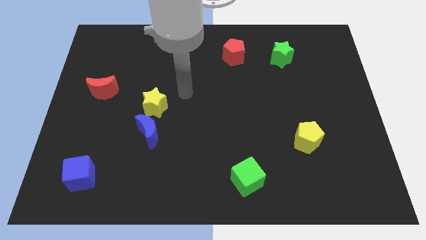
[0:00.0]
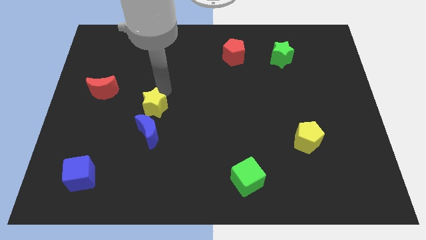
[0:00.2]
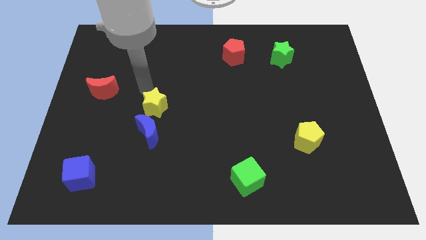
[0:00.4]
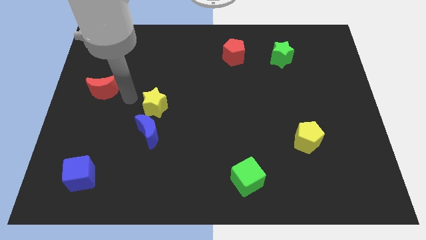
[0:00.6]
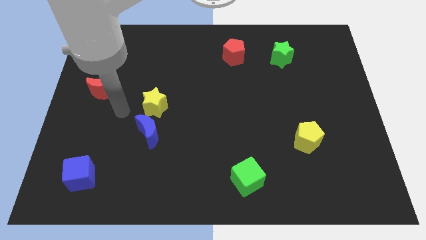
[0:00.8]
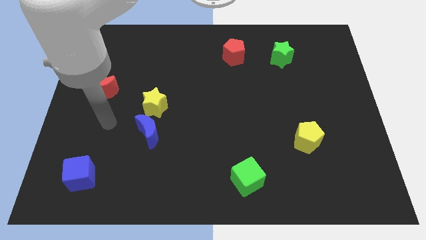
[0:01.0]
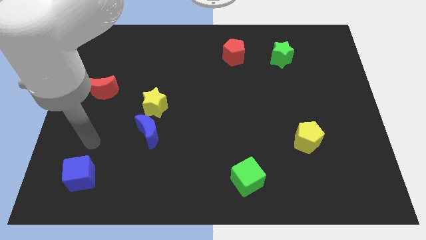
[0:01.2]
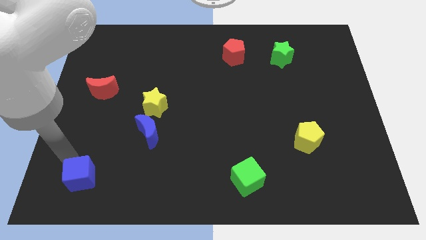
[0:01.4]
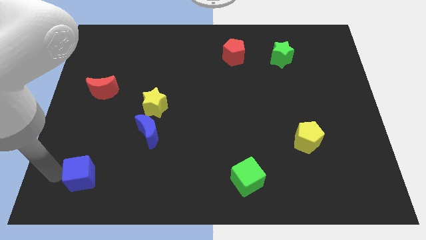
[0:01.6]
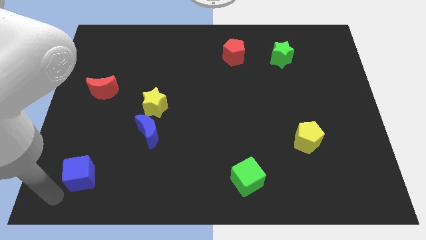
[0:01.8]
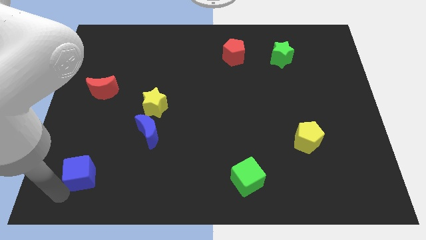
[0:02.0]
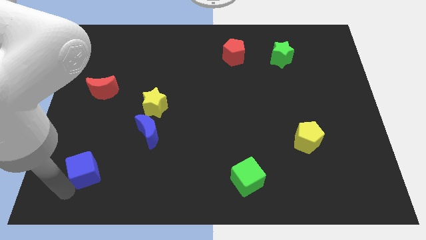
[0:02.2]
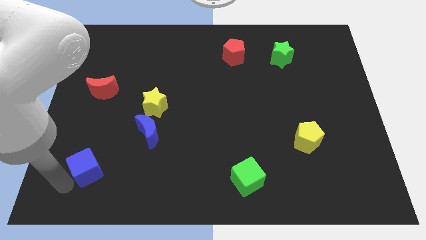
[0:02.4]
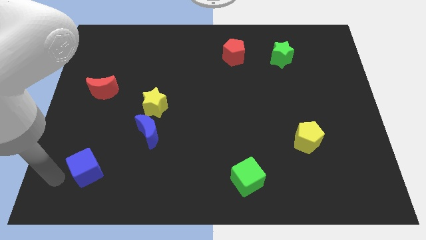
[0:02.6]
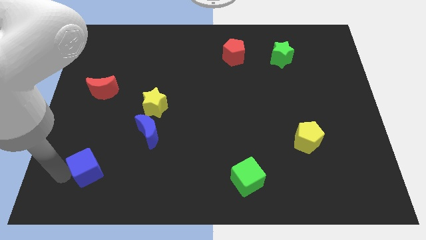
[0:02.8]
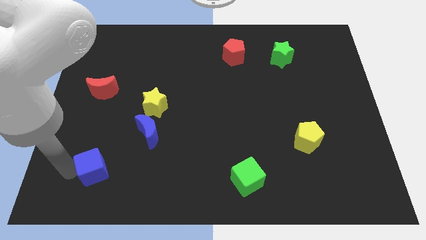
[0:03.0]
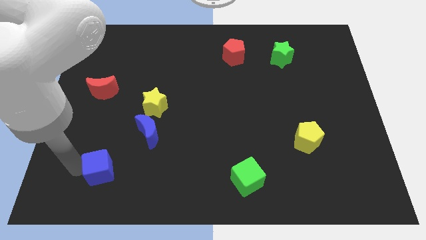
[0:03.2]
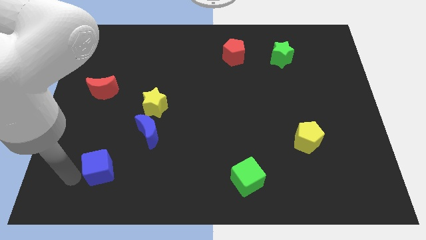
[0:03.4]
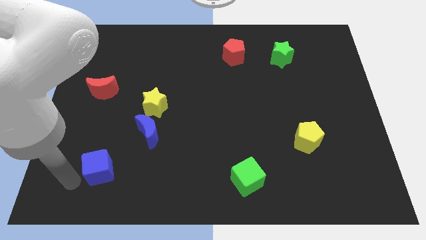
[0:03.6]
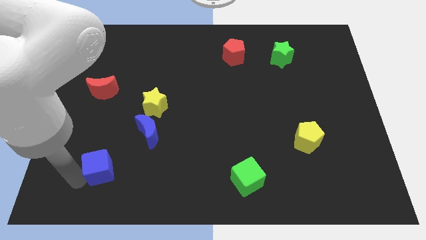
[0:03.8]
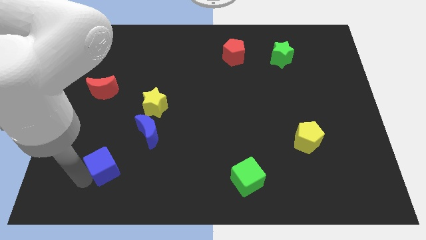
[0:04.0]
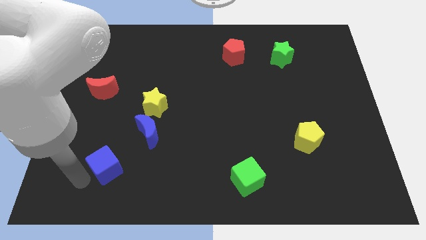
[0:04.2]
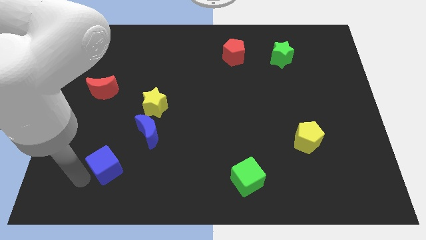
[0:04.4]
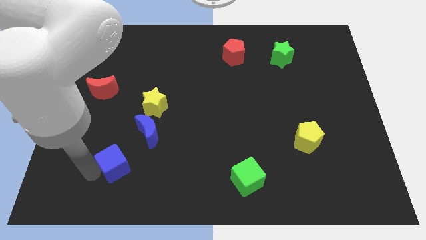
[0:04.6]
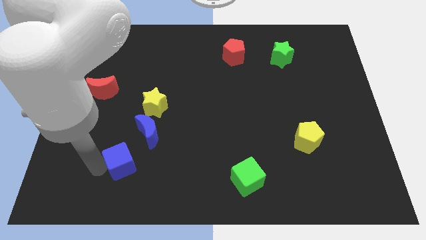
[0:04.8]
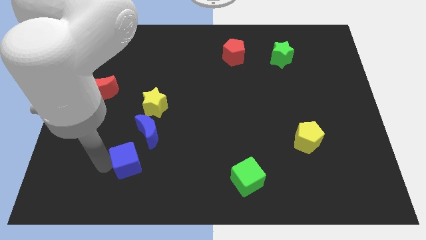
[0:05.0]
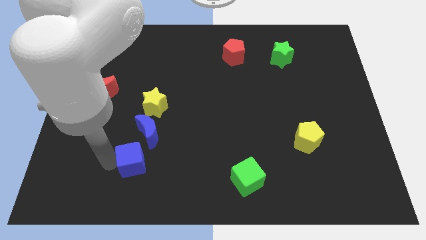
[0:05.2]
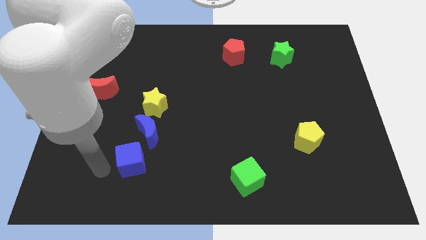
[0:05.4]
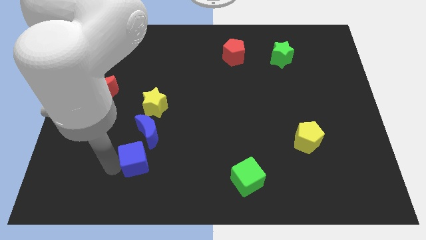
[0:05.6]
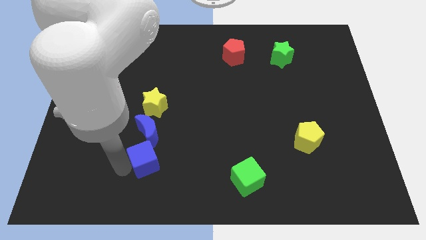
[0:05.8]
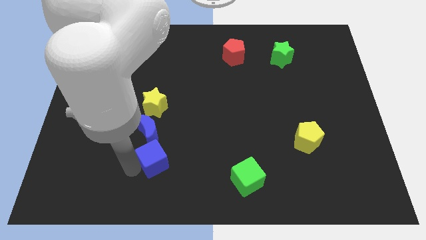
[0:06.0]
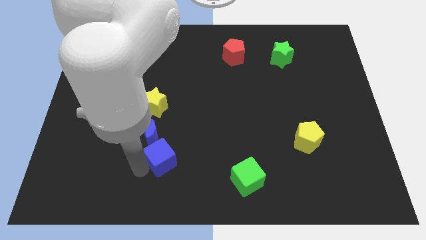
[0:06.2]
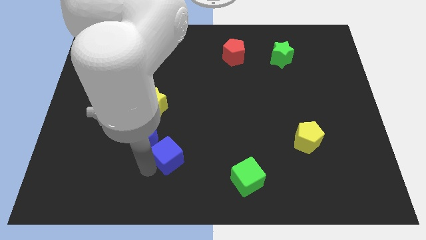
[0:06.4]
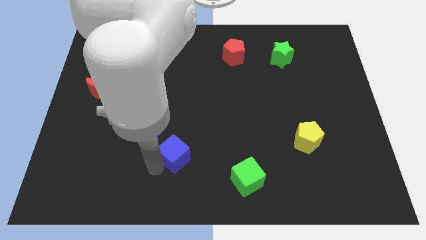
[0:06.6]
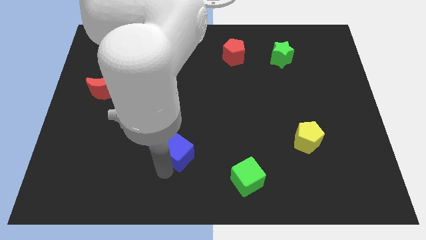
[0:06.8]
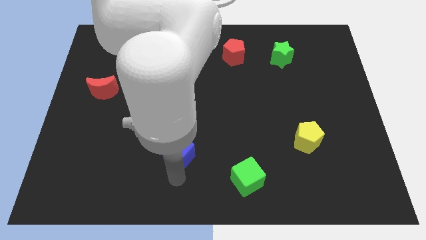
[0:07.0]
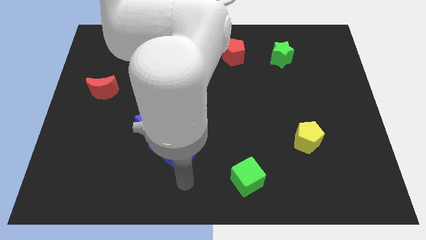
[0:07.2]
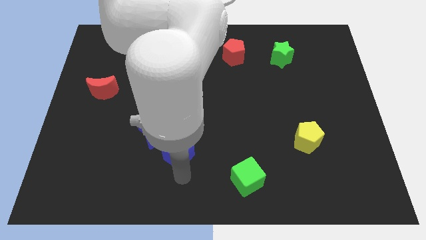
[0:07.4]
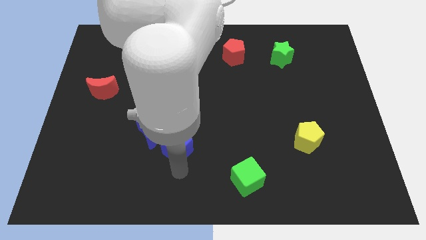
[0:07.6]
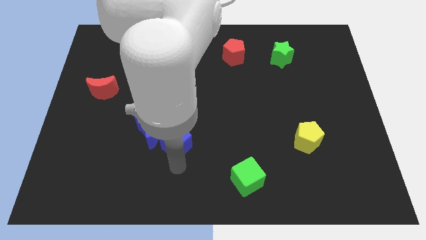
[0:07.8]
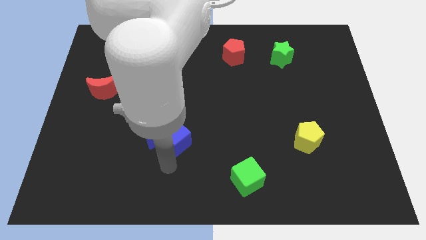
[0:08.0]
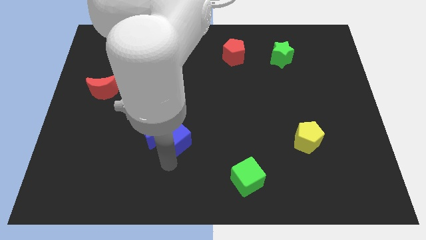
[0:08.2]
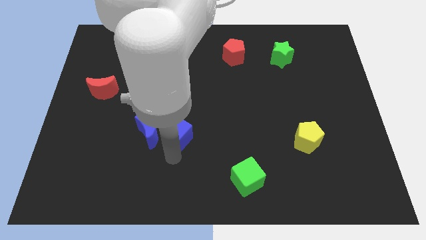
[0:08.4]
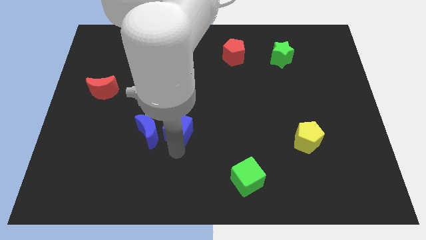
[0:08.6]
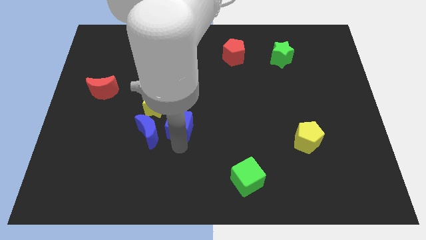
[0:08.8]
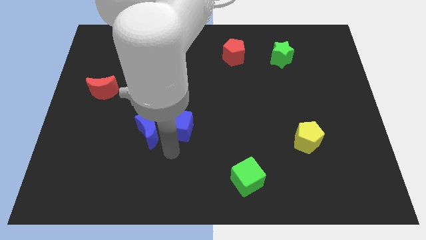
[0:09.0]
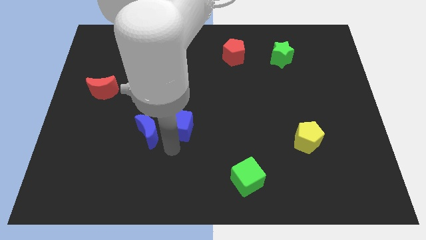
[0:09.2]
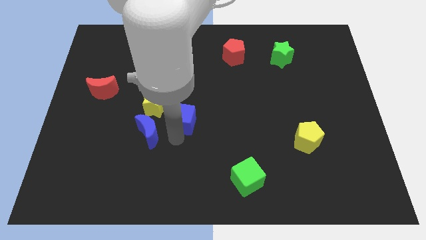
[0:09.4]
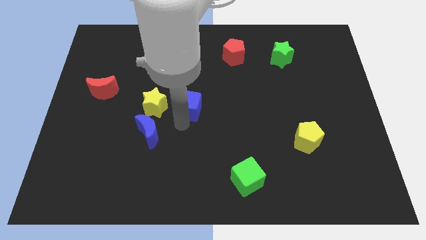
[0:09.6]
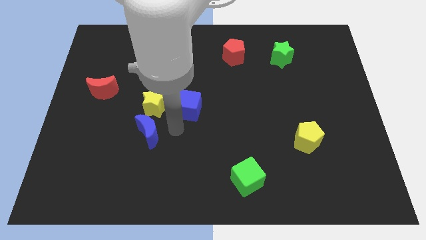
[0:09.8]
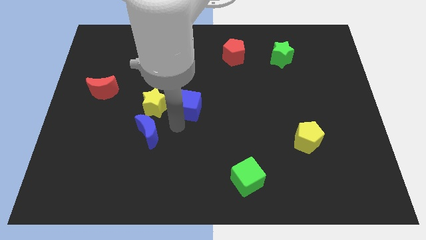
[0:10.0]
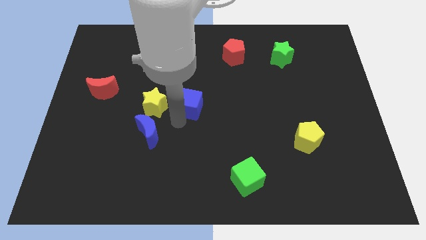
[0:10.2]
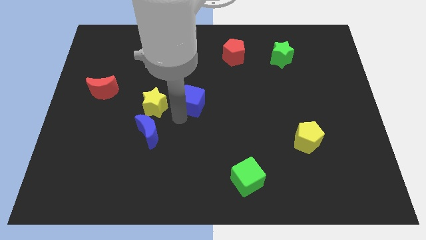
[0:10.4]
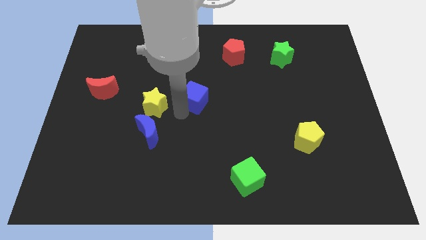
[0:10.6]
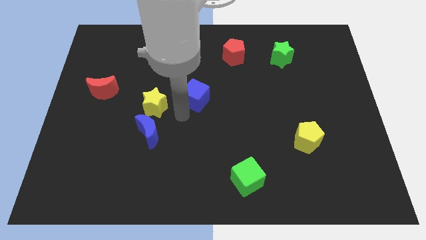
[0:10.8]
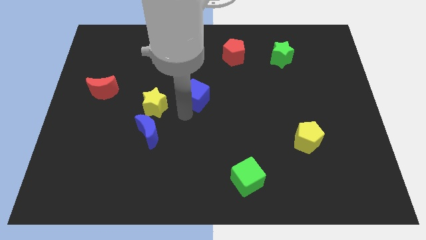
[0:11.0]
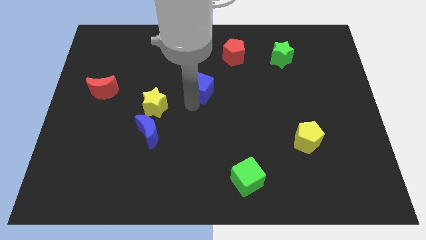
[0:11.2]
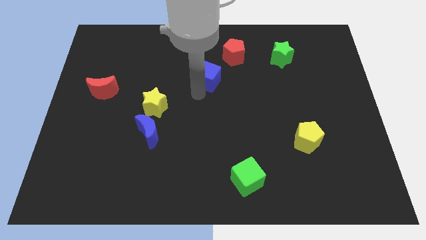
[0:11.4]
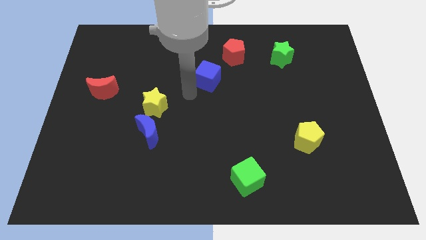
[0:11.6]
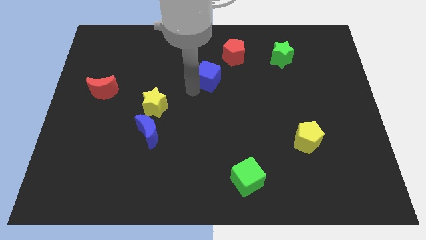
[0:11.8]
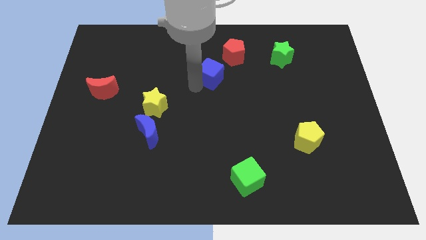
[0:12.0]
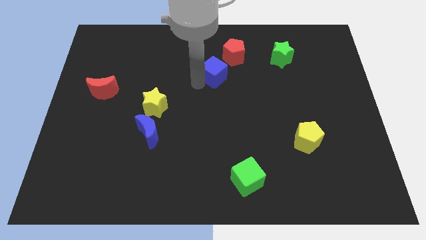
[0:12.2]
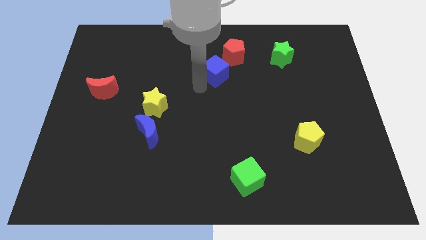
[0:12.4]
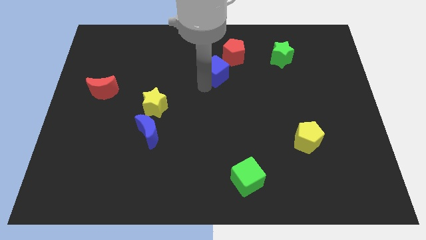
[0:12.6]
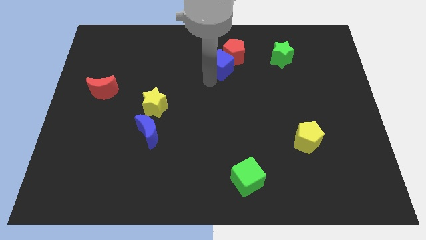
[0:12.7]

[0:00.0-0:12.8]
move the blue cube to the red pentagon
